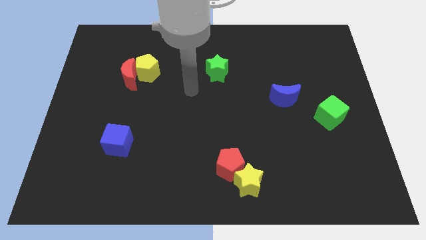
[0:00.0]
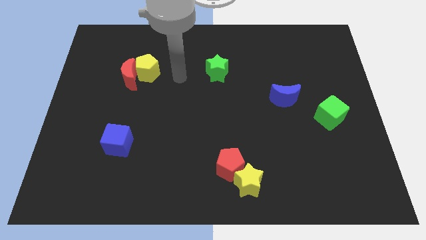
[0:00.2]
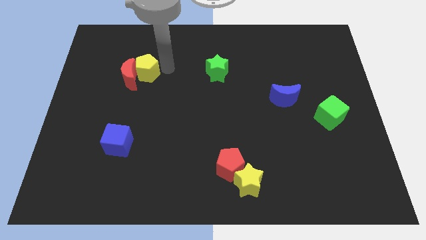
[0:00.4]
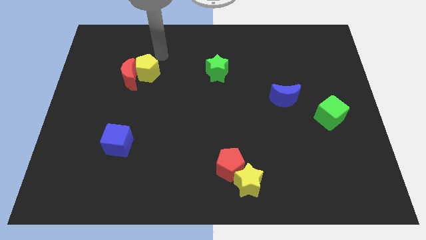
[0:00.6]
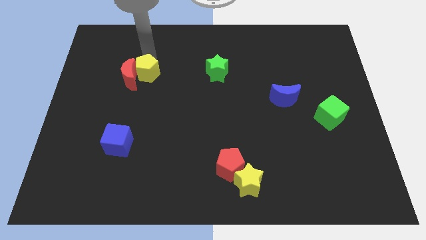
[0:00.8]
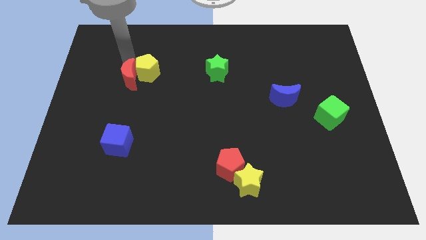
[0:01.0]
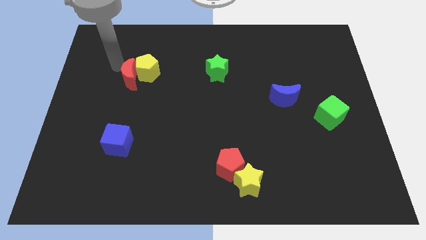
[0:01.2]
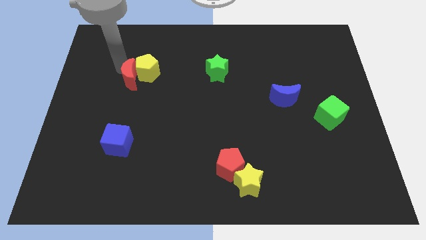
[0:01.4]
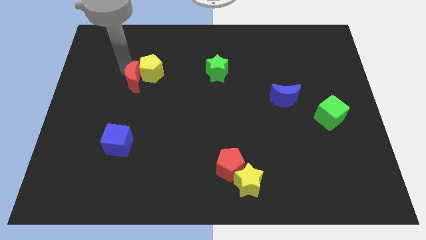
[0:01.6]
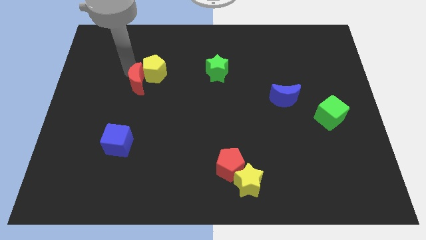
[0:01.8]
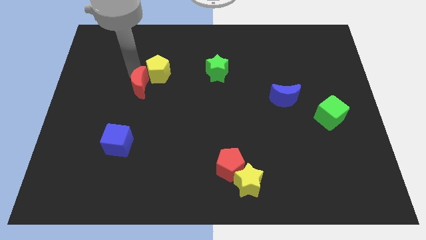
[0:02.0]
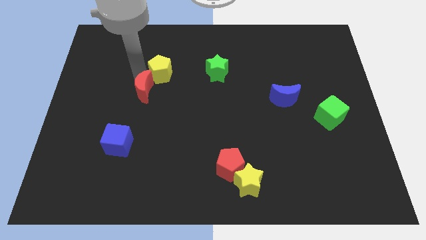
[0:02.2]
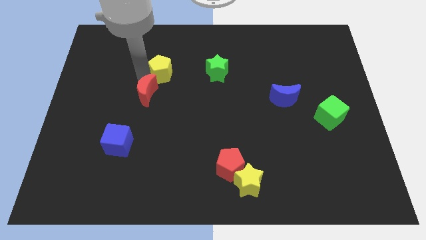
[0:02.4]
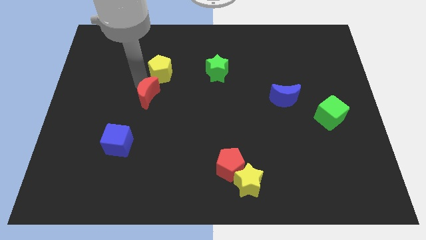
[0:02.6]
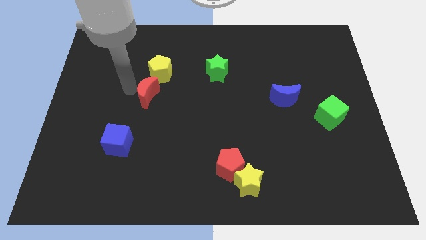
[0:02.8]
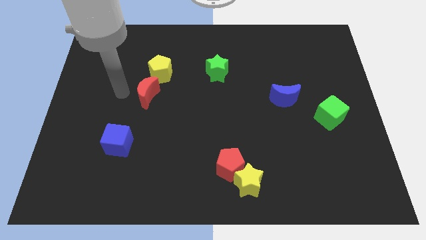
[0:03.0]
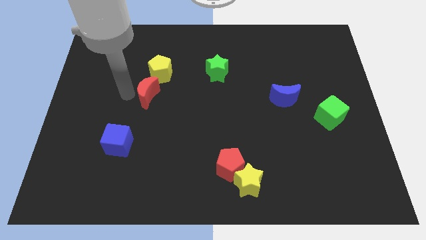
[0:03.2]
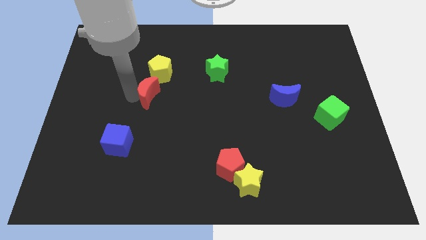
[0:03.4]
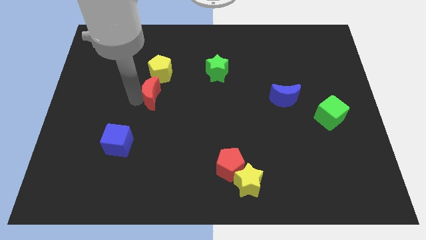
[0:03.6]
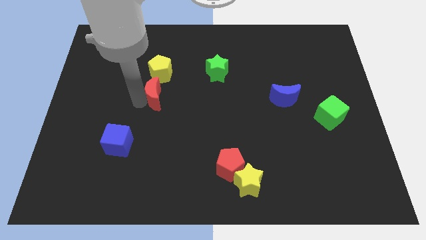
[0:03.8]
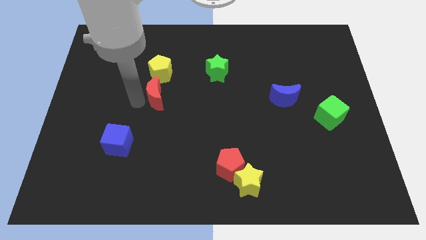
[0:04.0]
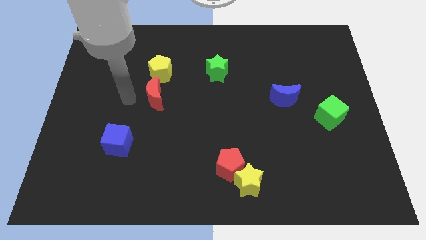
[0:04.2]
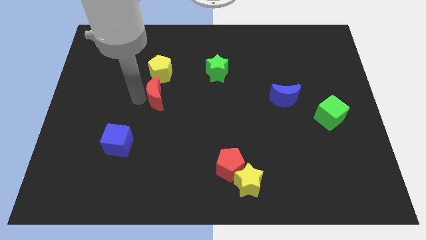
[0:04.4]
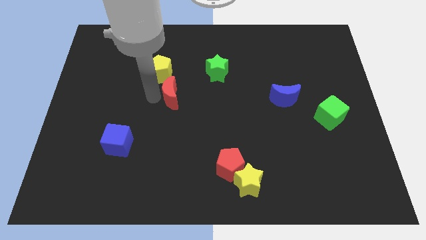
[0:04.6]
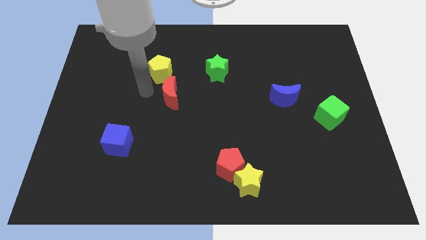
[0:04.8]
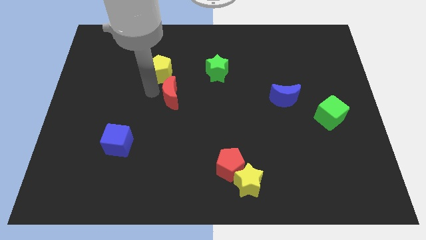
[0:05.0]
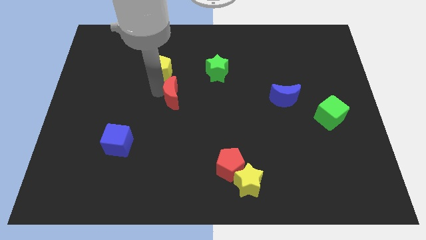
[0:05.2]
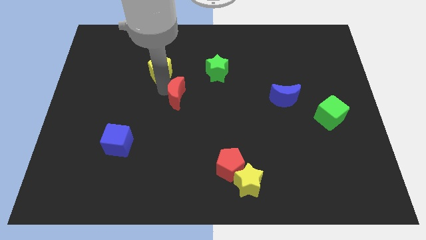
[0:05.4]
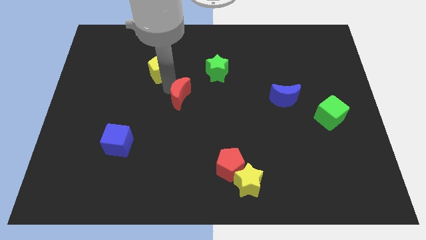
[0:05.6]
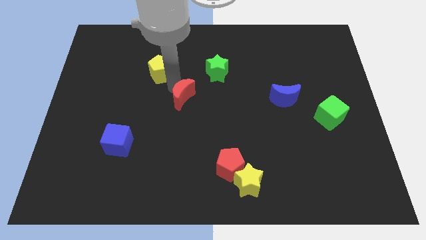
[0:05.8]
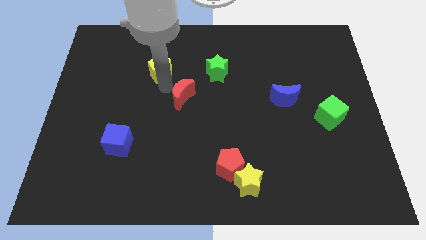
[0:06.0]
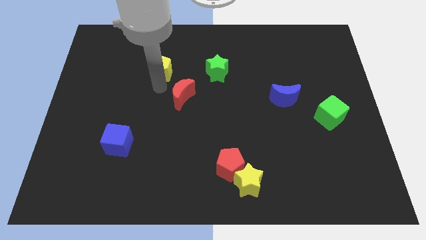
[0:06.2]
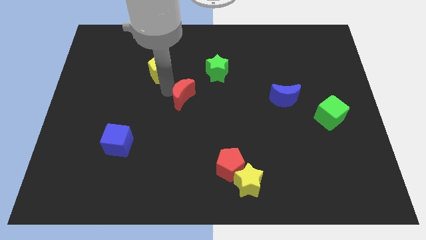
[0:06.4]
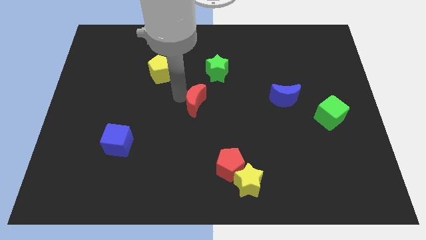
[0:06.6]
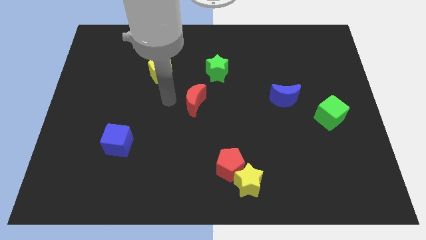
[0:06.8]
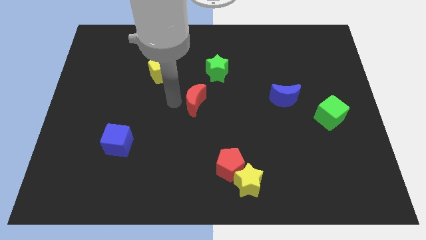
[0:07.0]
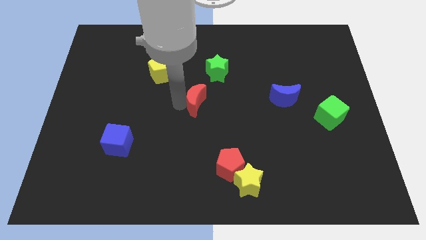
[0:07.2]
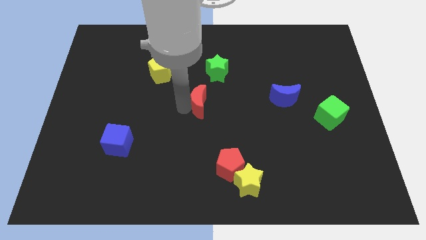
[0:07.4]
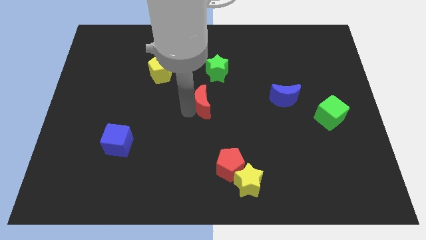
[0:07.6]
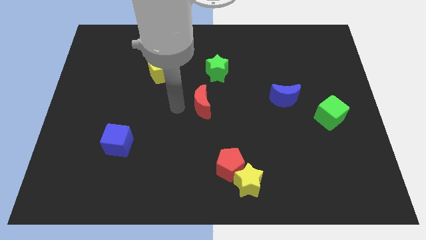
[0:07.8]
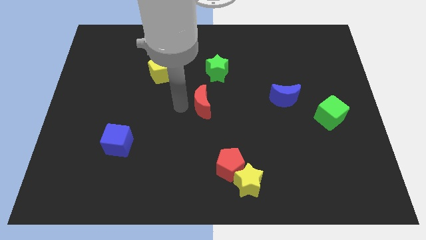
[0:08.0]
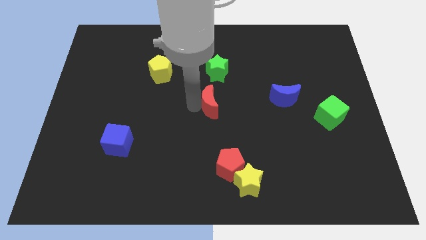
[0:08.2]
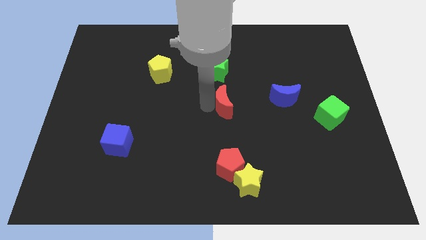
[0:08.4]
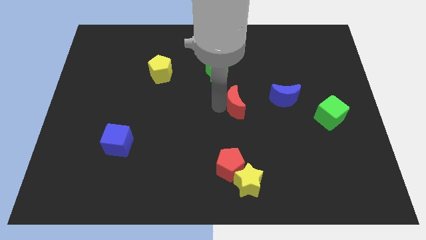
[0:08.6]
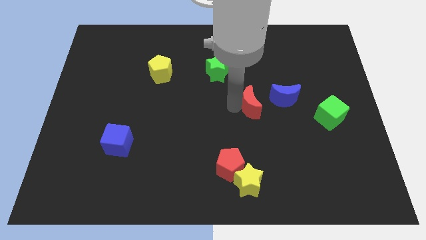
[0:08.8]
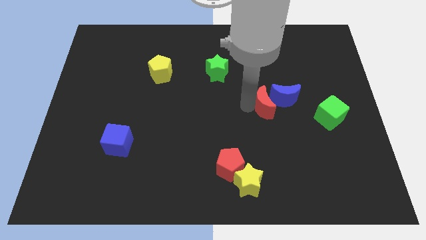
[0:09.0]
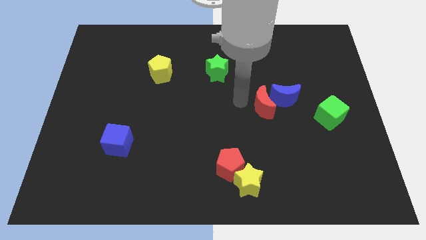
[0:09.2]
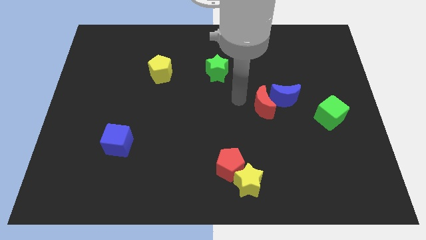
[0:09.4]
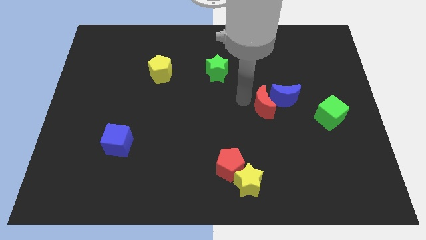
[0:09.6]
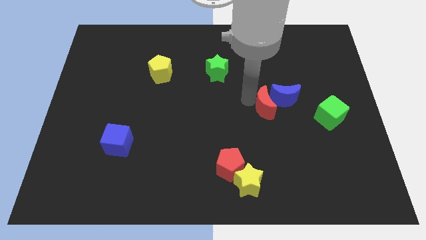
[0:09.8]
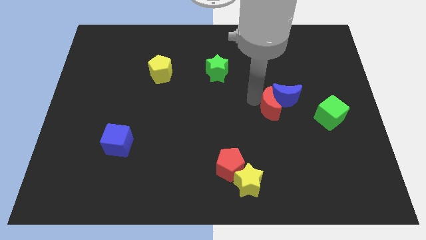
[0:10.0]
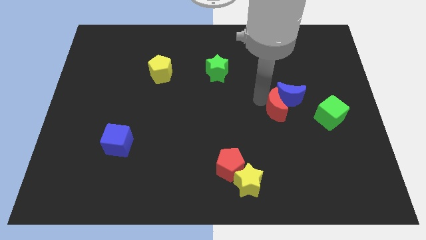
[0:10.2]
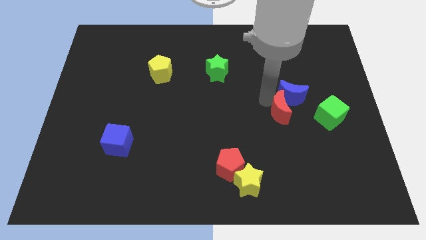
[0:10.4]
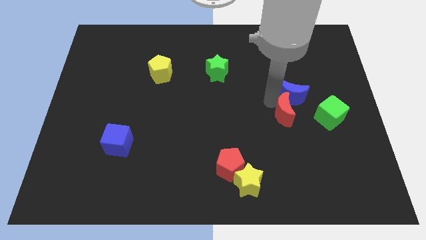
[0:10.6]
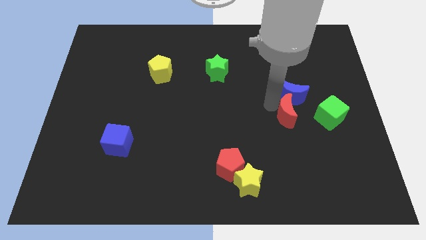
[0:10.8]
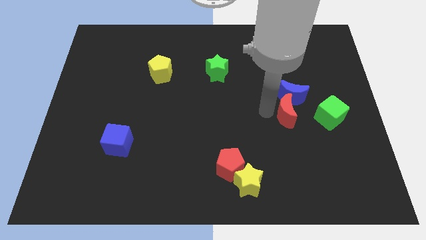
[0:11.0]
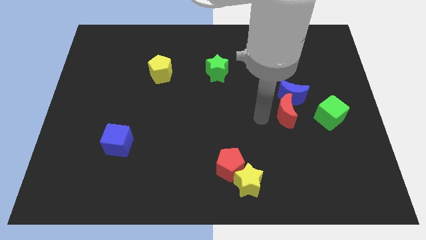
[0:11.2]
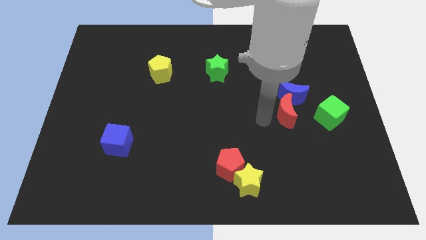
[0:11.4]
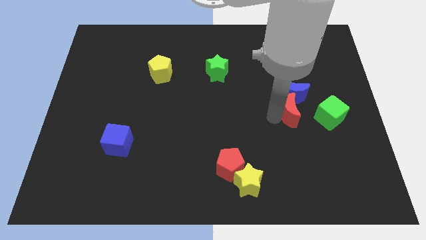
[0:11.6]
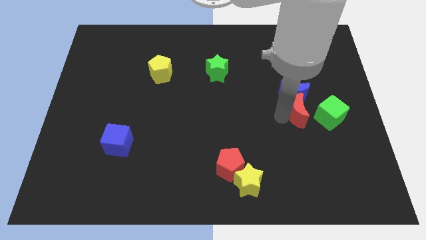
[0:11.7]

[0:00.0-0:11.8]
slide the red moon to the top left of the green cube

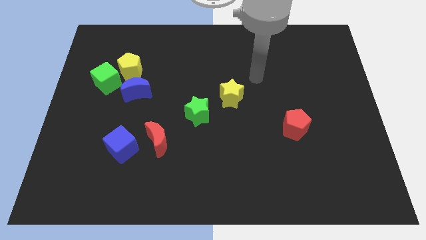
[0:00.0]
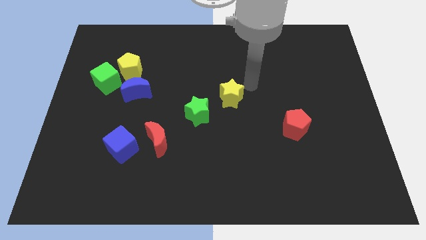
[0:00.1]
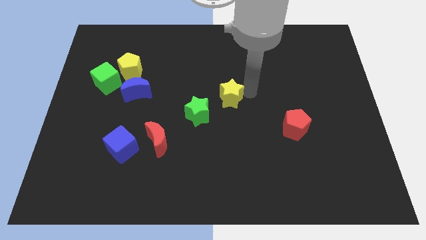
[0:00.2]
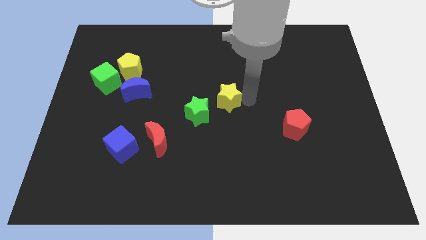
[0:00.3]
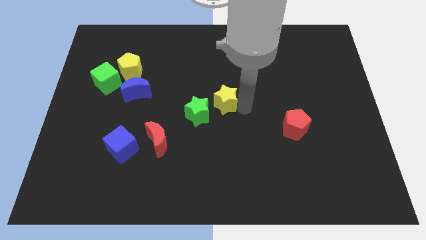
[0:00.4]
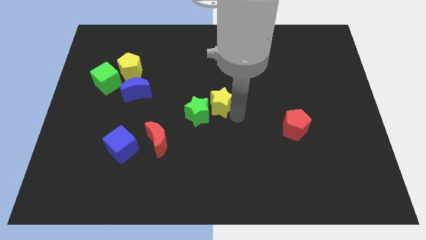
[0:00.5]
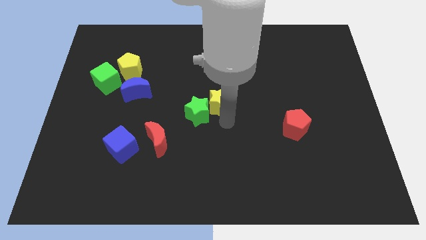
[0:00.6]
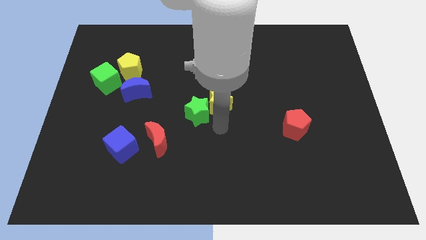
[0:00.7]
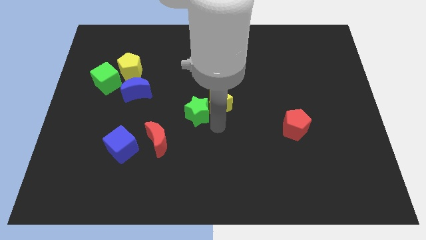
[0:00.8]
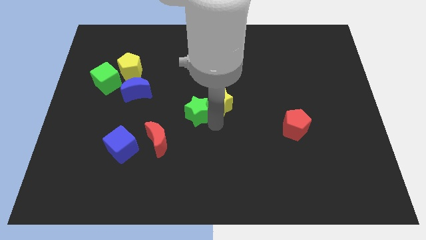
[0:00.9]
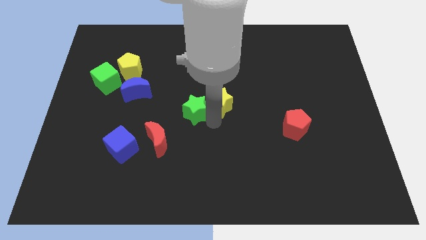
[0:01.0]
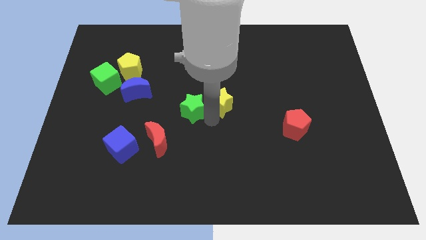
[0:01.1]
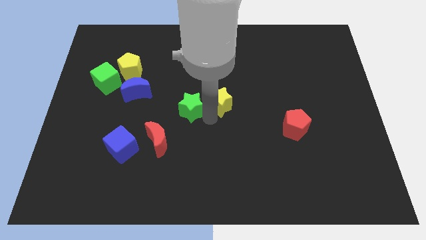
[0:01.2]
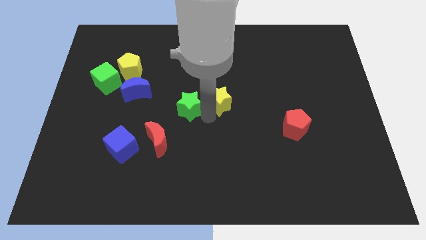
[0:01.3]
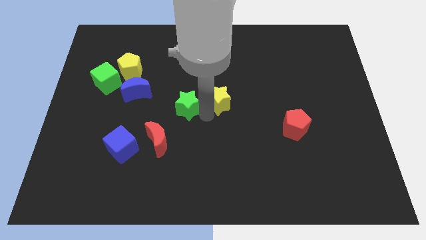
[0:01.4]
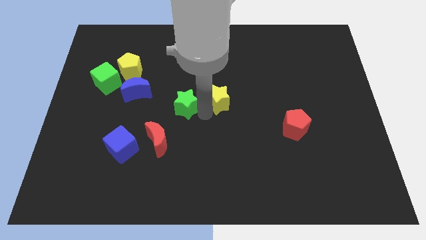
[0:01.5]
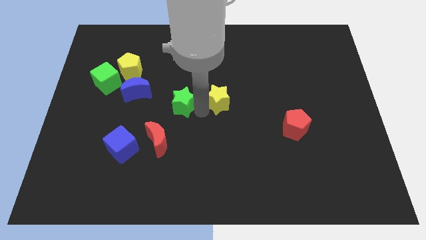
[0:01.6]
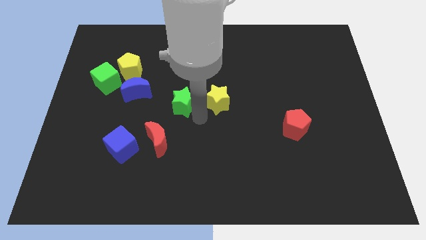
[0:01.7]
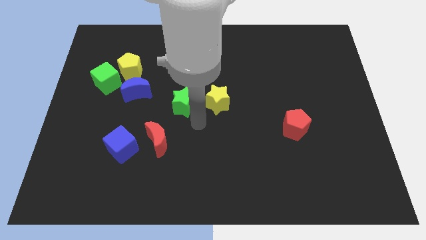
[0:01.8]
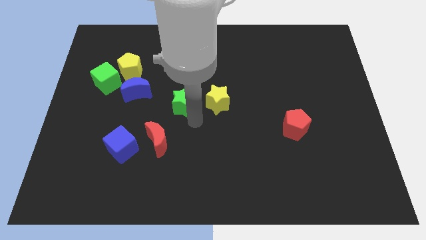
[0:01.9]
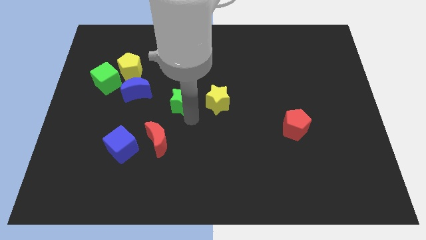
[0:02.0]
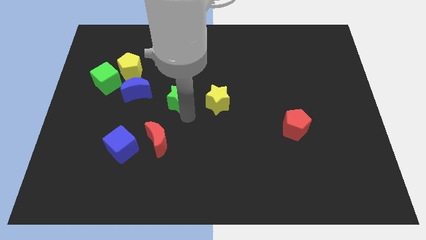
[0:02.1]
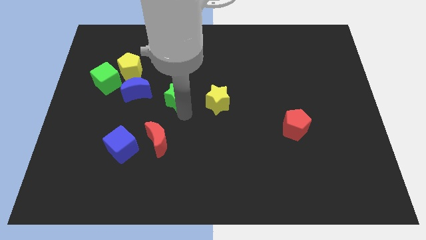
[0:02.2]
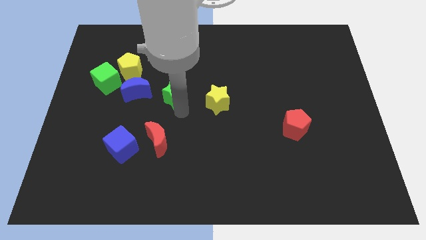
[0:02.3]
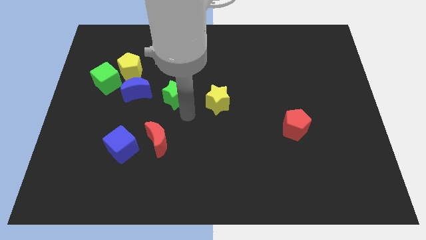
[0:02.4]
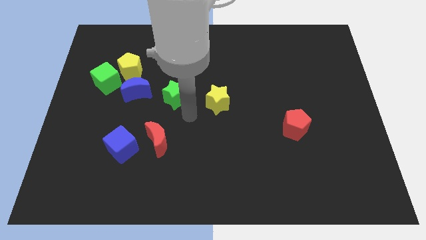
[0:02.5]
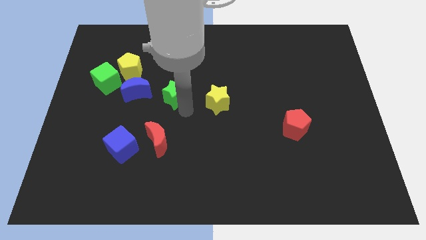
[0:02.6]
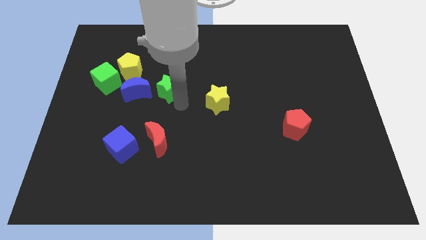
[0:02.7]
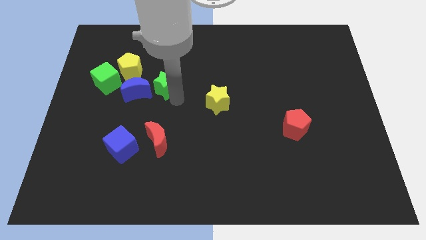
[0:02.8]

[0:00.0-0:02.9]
move the green star diagonally up and to the right of the blue moon
